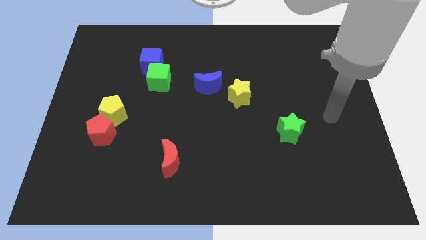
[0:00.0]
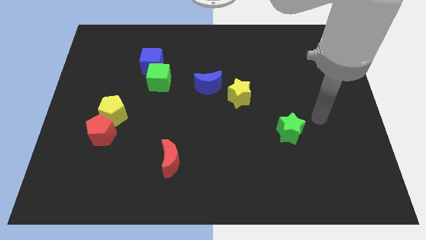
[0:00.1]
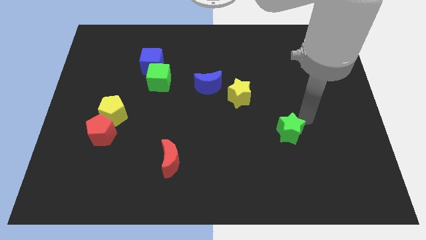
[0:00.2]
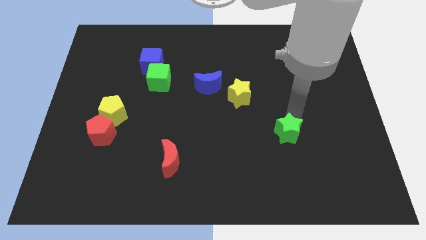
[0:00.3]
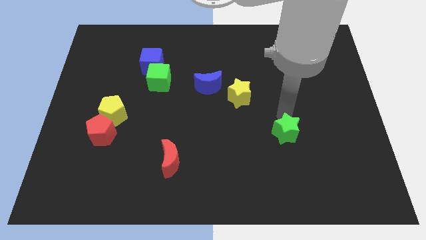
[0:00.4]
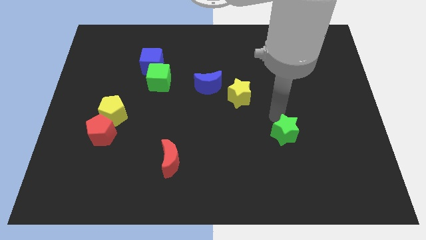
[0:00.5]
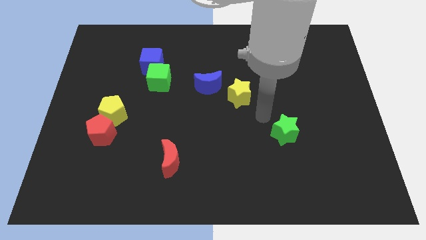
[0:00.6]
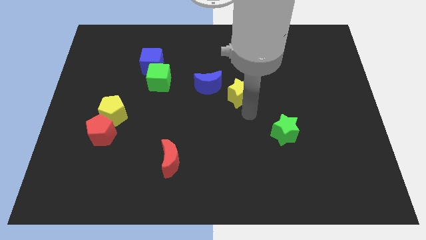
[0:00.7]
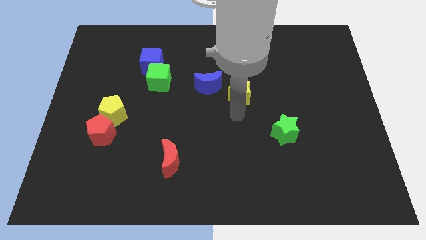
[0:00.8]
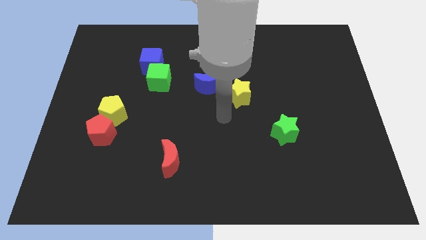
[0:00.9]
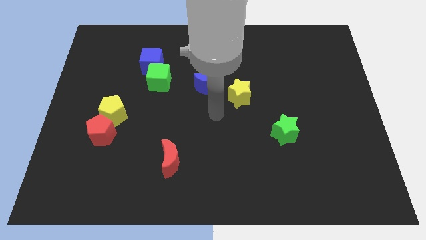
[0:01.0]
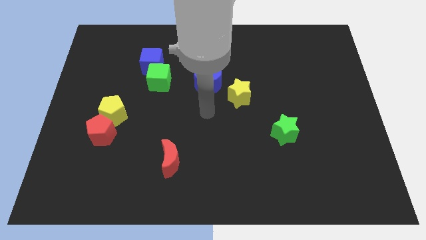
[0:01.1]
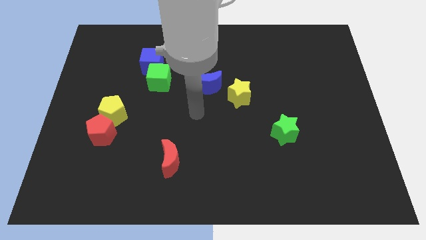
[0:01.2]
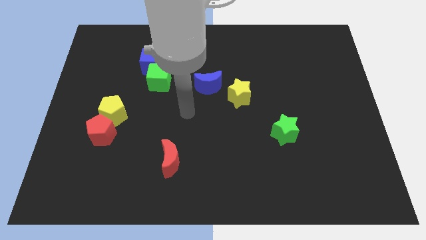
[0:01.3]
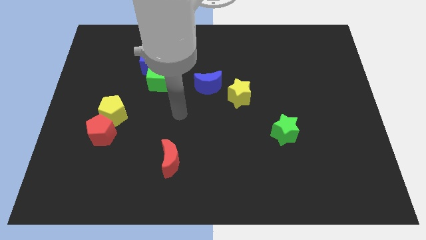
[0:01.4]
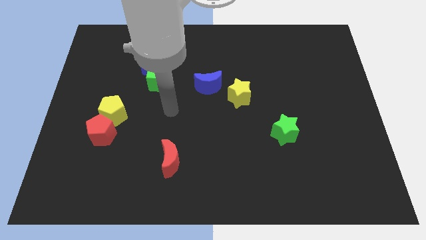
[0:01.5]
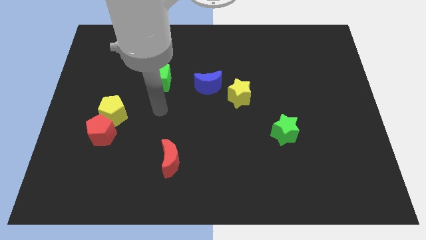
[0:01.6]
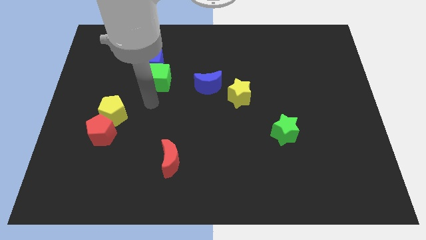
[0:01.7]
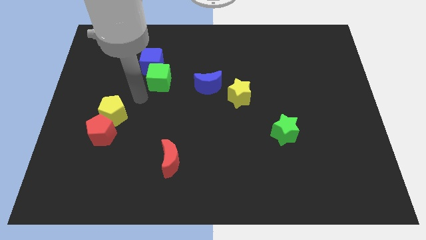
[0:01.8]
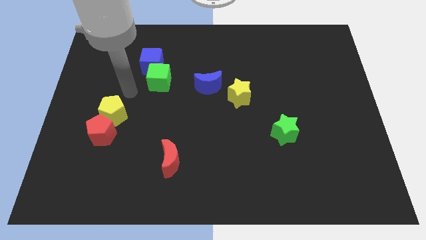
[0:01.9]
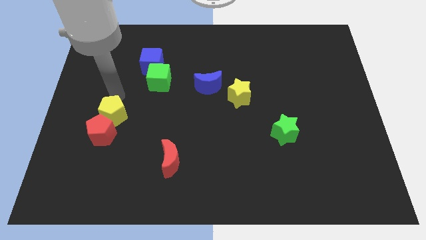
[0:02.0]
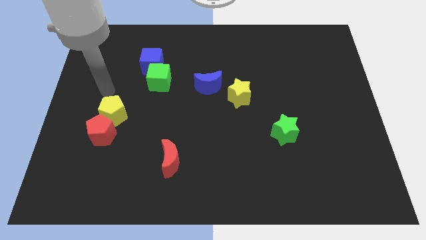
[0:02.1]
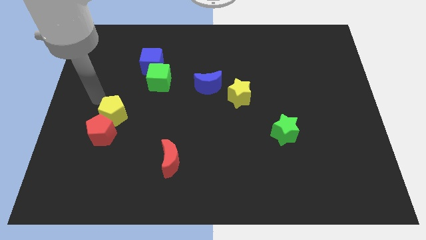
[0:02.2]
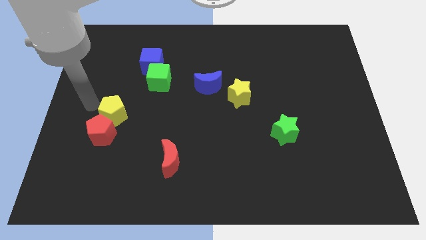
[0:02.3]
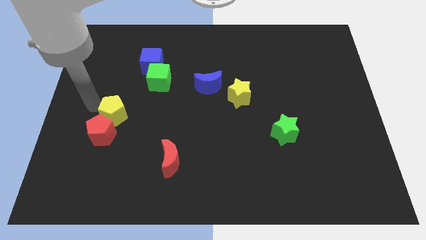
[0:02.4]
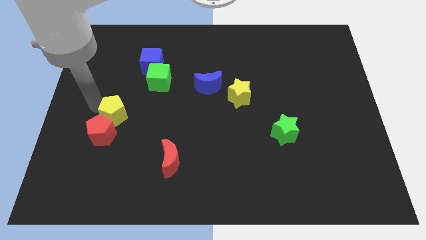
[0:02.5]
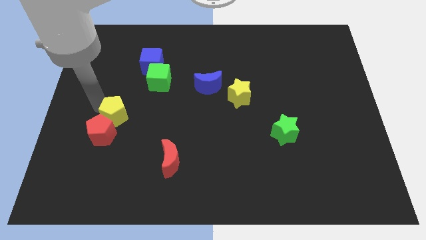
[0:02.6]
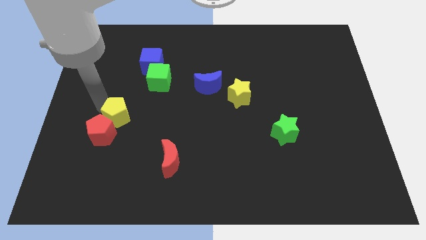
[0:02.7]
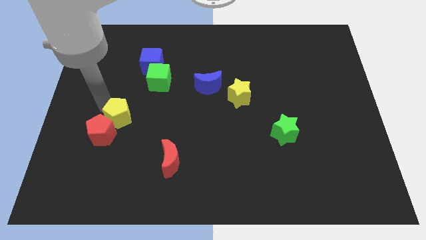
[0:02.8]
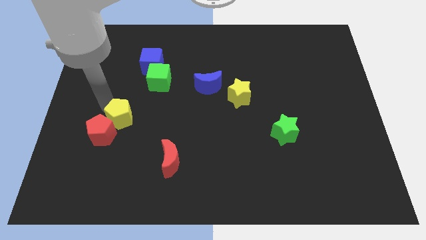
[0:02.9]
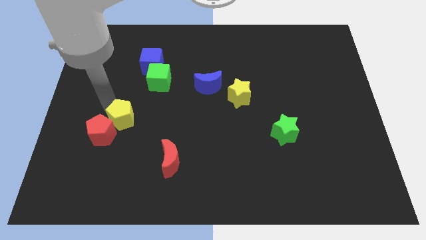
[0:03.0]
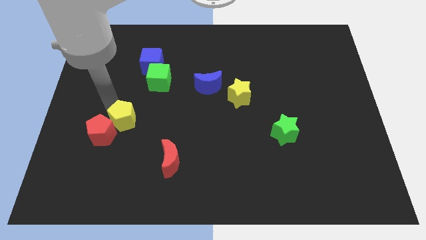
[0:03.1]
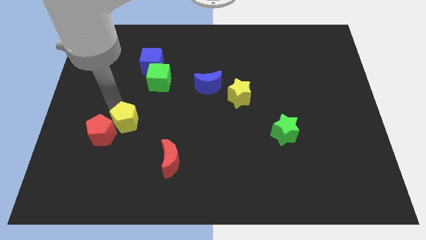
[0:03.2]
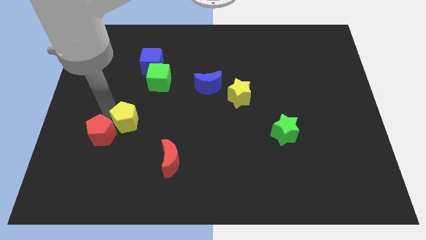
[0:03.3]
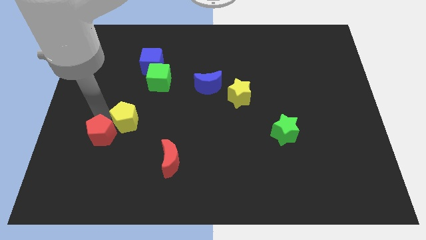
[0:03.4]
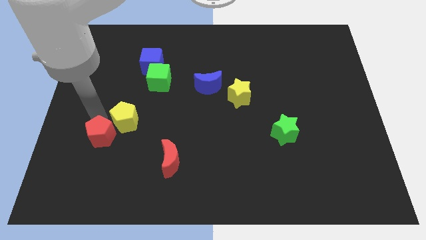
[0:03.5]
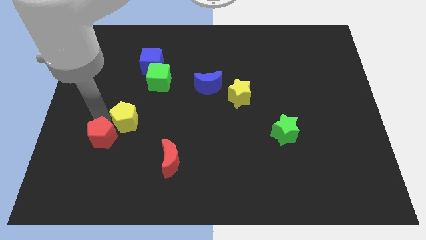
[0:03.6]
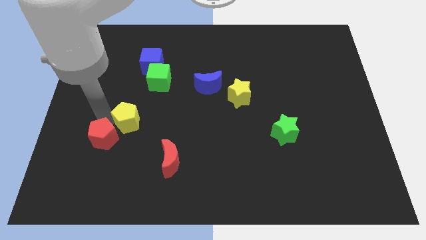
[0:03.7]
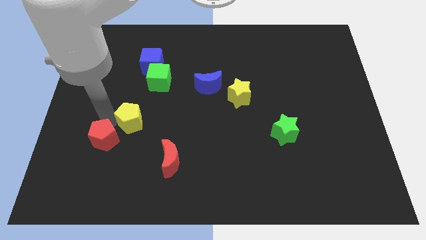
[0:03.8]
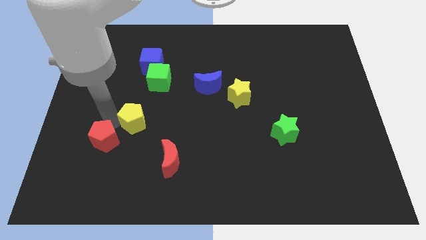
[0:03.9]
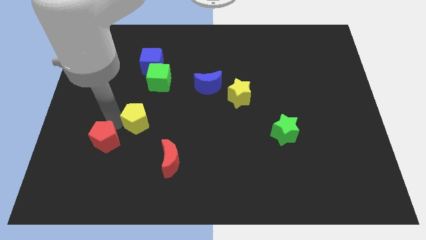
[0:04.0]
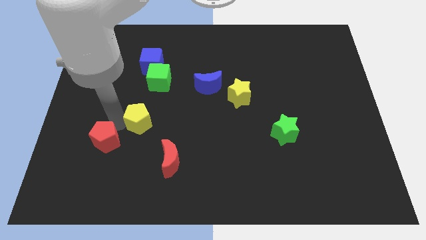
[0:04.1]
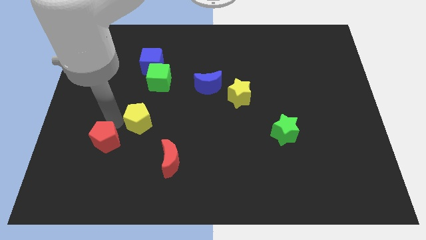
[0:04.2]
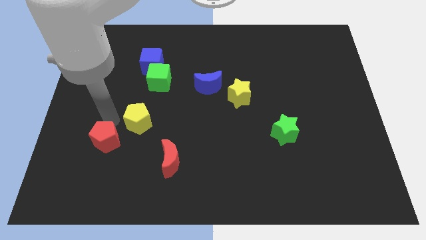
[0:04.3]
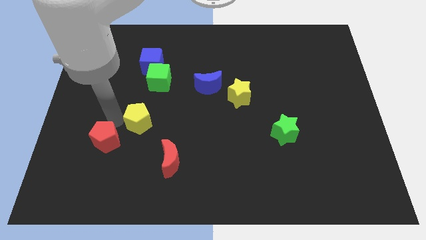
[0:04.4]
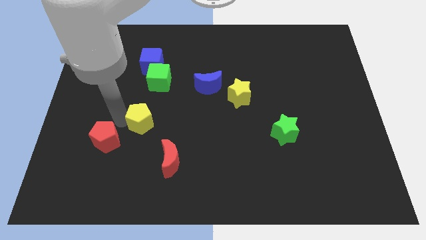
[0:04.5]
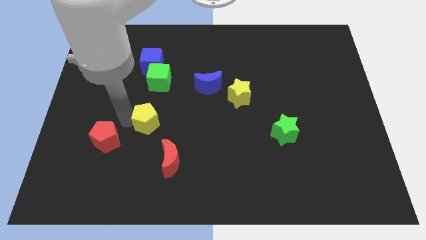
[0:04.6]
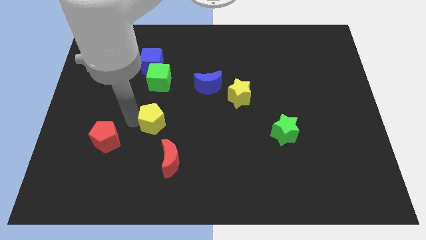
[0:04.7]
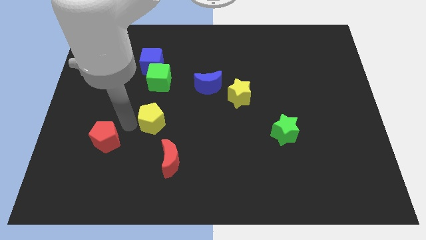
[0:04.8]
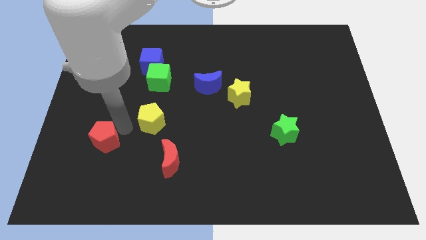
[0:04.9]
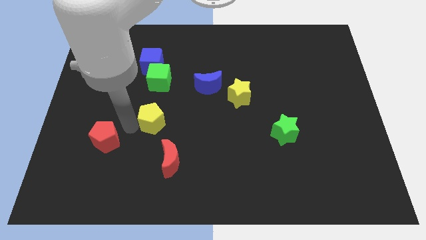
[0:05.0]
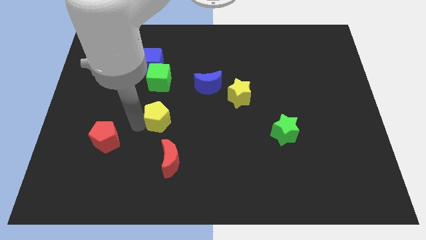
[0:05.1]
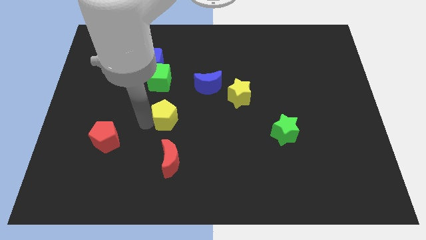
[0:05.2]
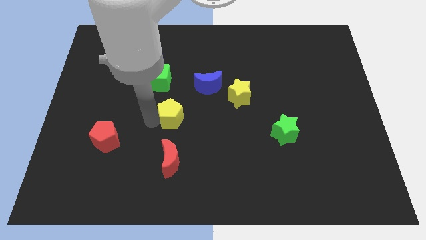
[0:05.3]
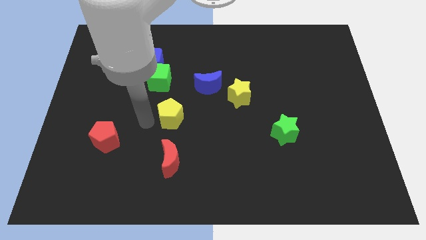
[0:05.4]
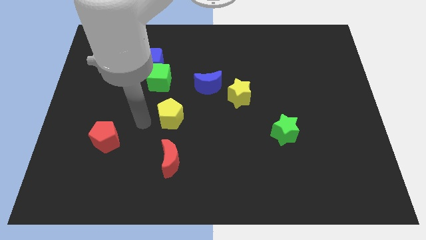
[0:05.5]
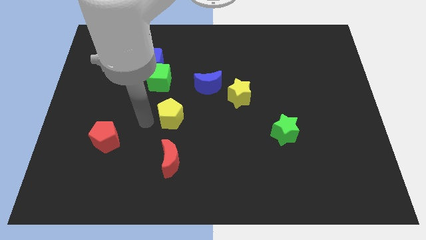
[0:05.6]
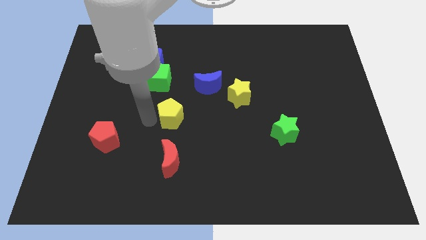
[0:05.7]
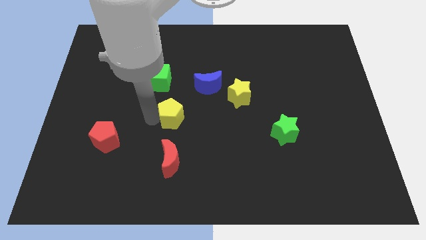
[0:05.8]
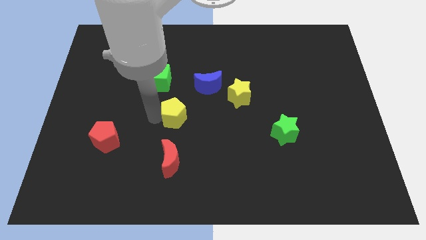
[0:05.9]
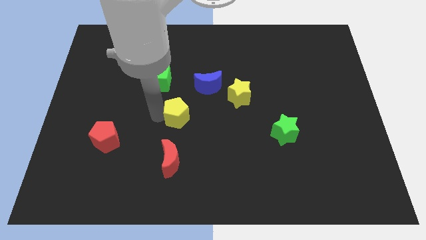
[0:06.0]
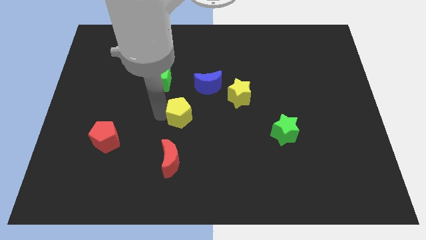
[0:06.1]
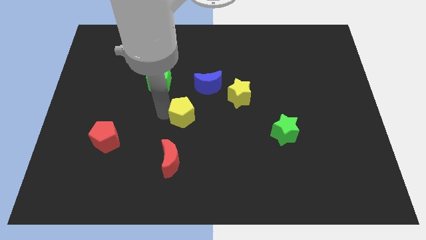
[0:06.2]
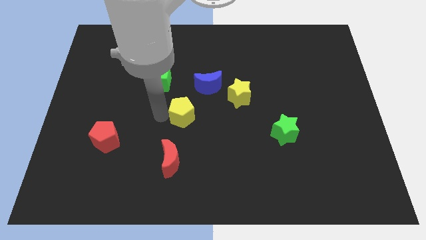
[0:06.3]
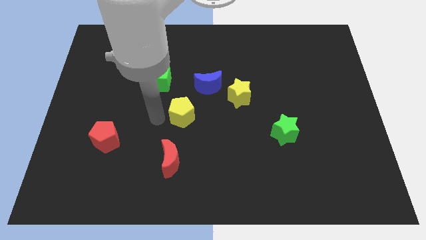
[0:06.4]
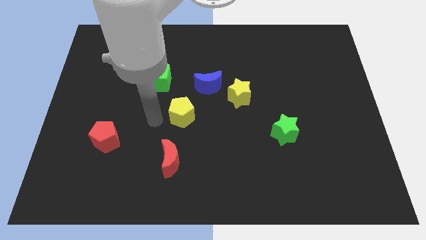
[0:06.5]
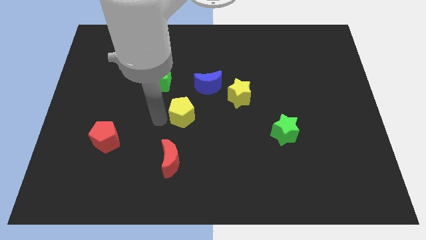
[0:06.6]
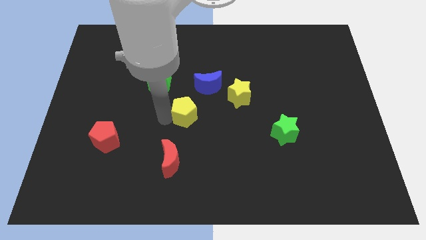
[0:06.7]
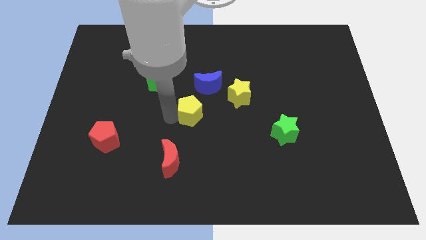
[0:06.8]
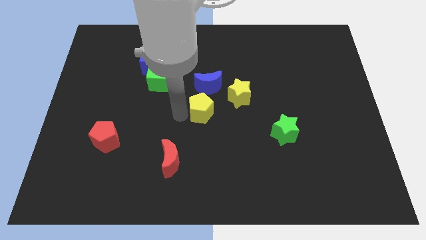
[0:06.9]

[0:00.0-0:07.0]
push the yellow pentagon right

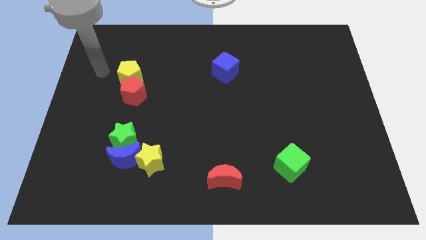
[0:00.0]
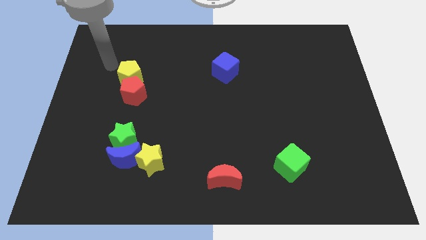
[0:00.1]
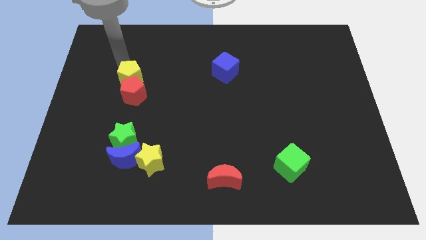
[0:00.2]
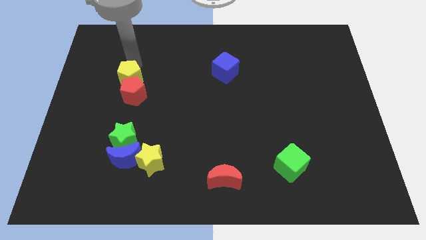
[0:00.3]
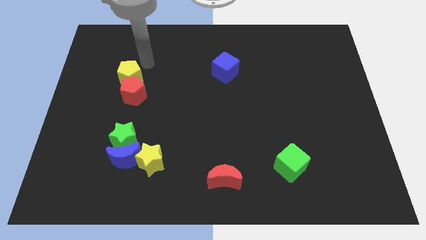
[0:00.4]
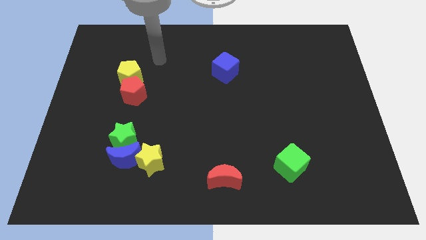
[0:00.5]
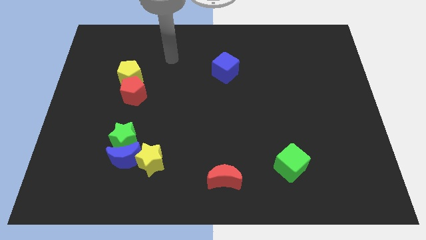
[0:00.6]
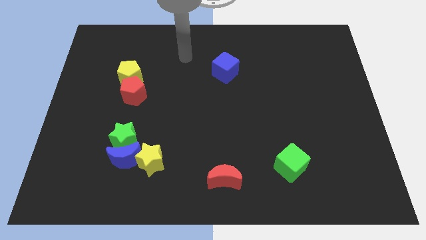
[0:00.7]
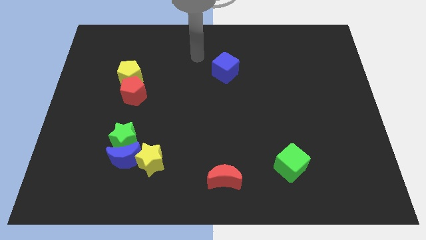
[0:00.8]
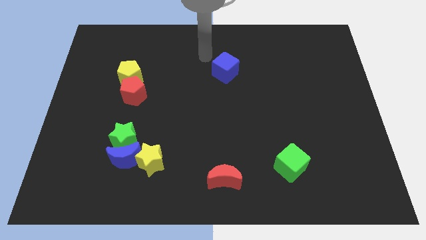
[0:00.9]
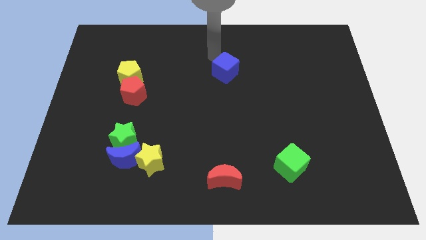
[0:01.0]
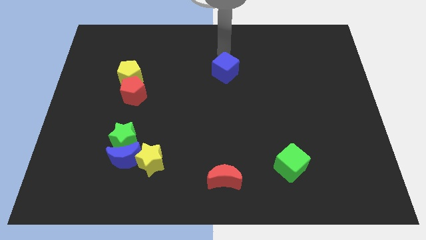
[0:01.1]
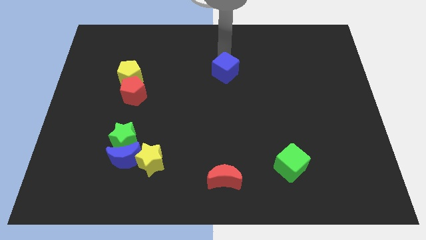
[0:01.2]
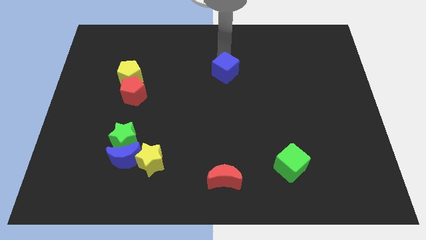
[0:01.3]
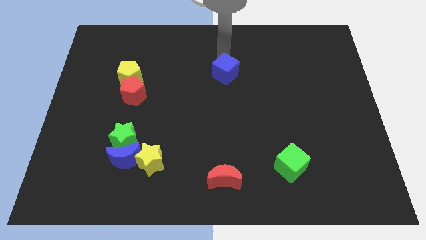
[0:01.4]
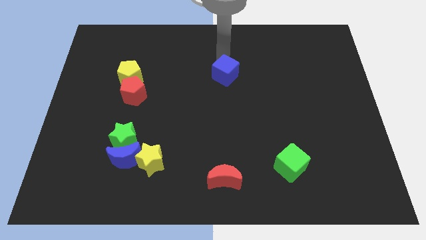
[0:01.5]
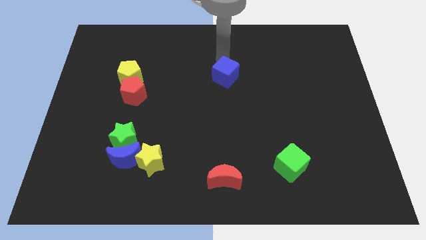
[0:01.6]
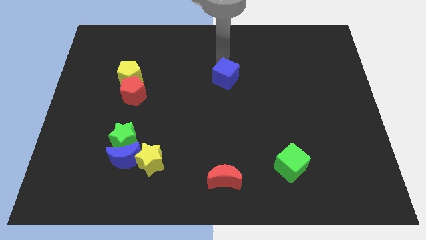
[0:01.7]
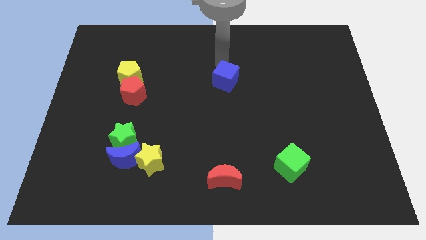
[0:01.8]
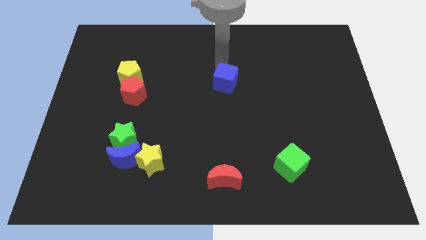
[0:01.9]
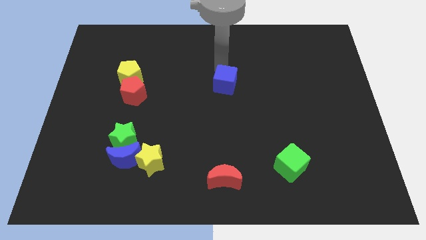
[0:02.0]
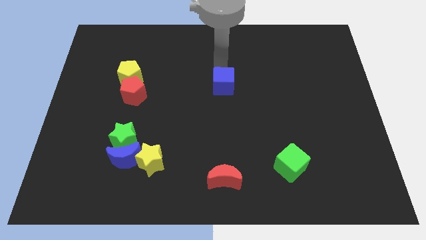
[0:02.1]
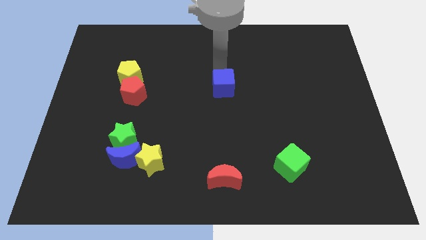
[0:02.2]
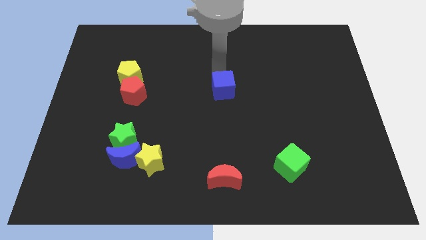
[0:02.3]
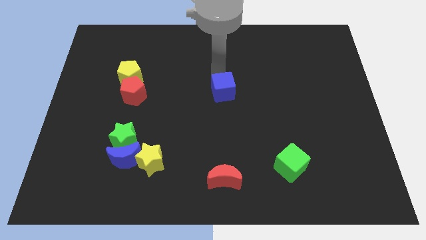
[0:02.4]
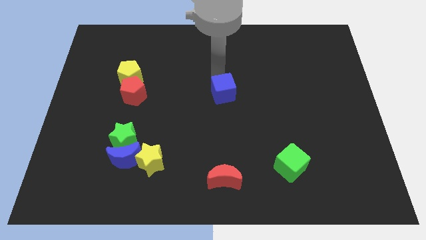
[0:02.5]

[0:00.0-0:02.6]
slightly slide the blue cube downwards
